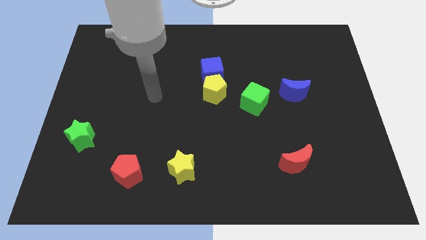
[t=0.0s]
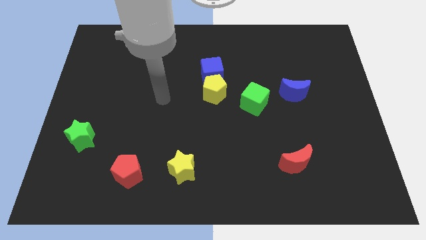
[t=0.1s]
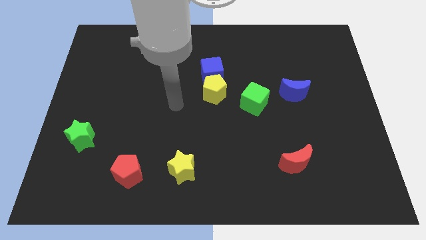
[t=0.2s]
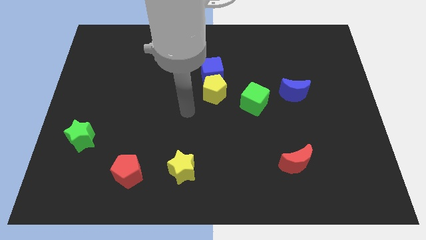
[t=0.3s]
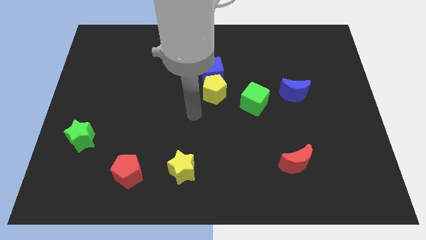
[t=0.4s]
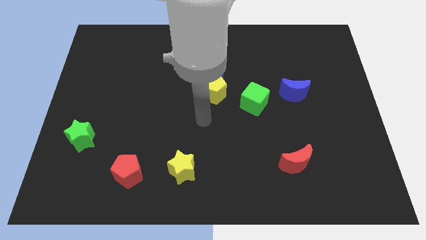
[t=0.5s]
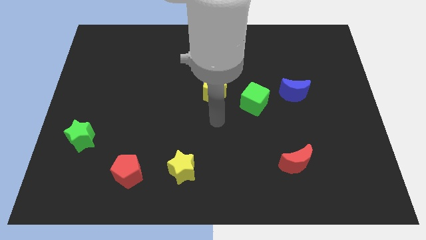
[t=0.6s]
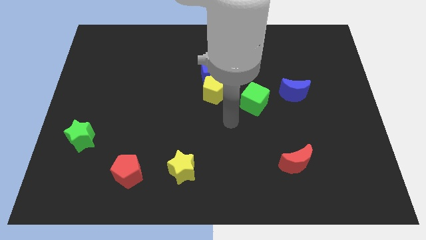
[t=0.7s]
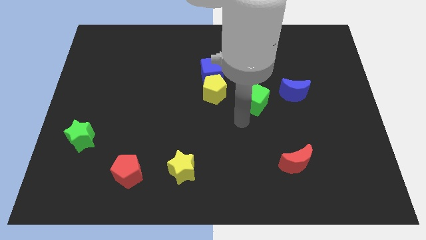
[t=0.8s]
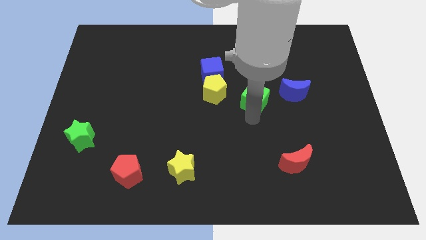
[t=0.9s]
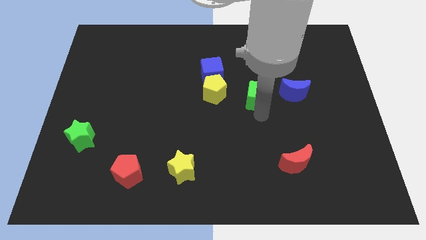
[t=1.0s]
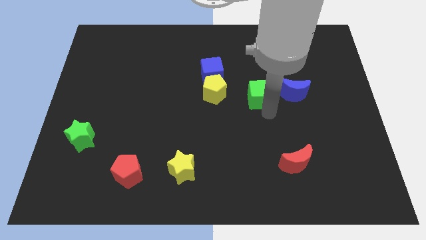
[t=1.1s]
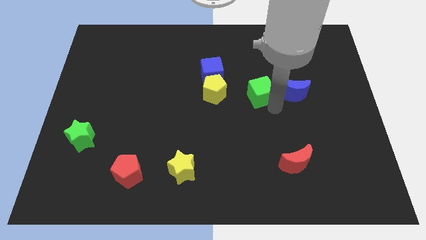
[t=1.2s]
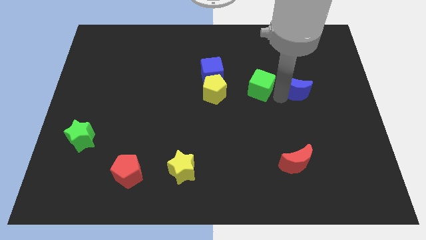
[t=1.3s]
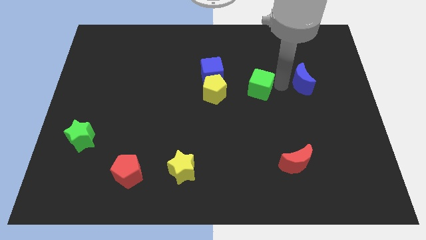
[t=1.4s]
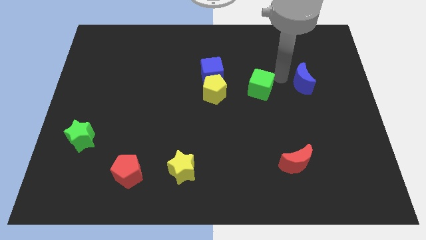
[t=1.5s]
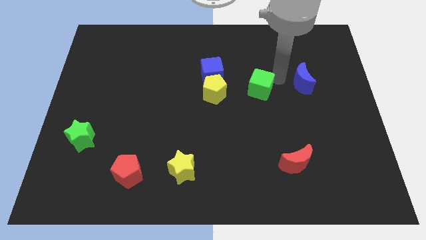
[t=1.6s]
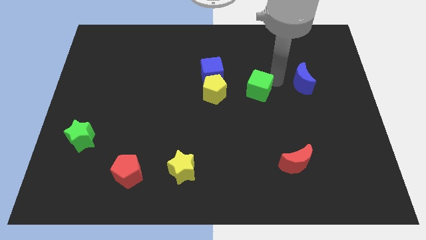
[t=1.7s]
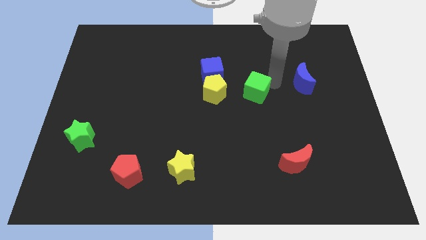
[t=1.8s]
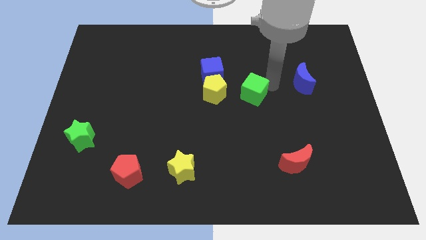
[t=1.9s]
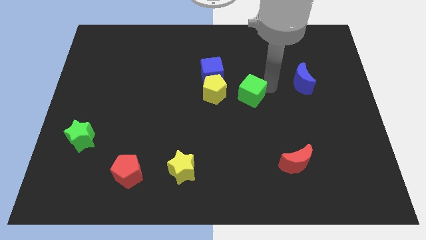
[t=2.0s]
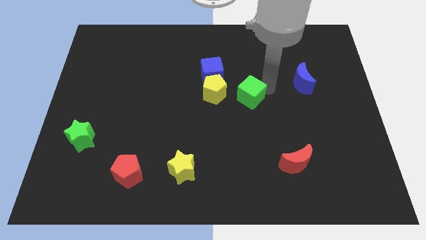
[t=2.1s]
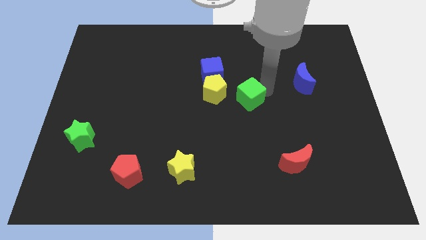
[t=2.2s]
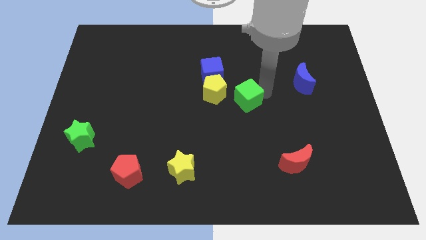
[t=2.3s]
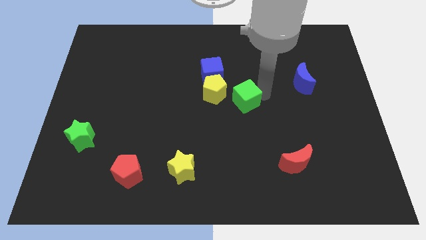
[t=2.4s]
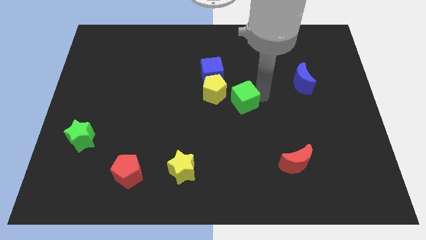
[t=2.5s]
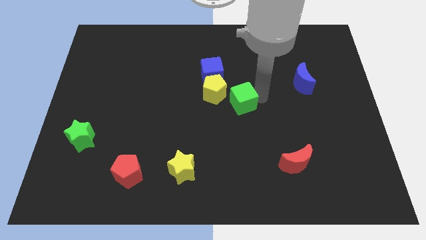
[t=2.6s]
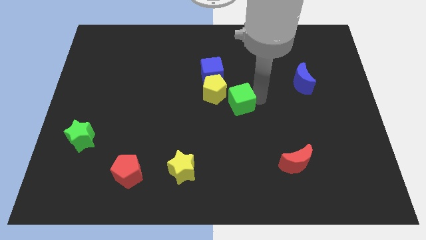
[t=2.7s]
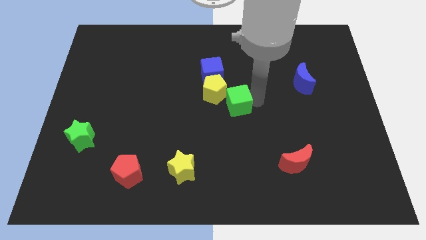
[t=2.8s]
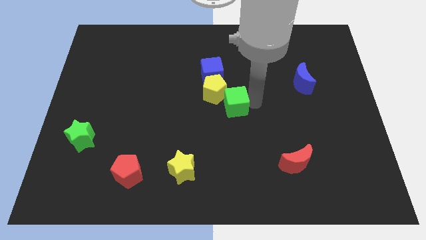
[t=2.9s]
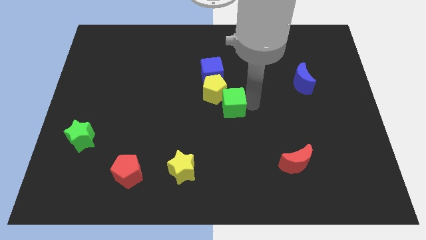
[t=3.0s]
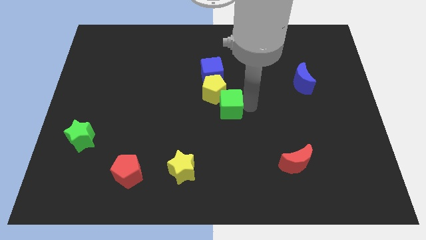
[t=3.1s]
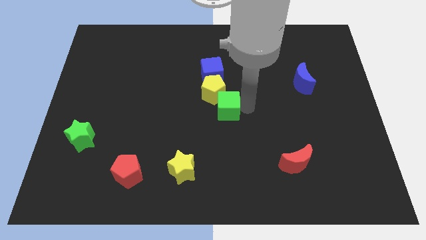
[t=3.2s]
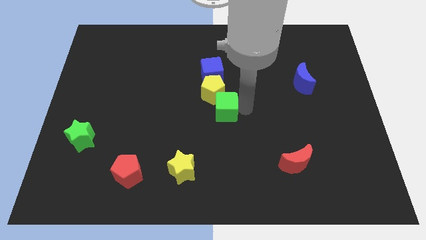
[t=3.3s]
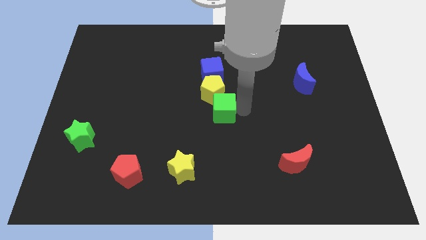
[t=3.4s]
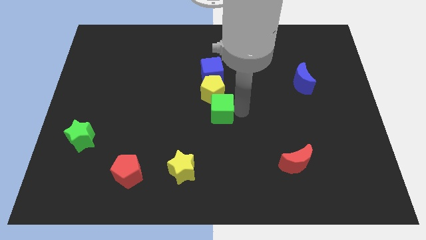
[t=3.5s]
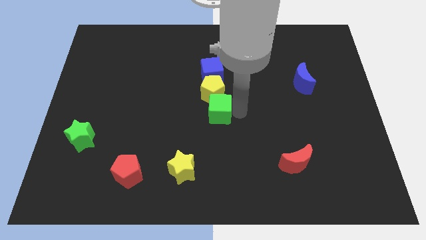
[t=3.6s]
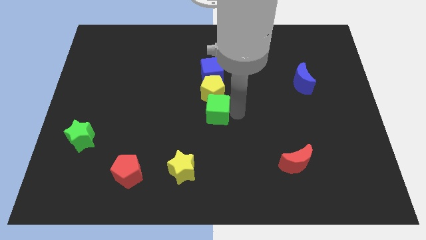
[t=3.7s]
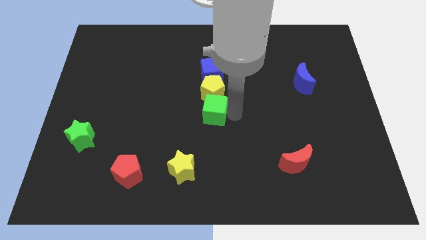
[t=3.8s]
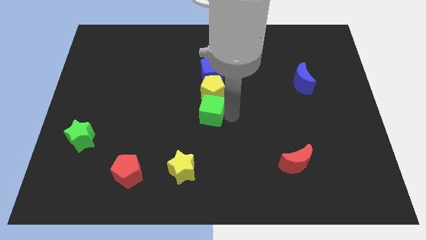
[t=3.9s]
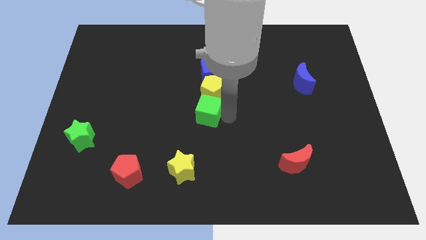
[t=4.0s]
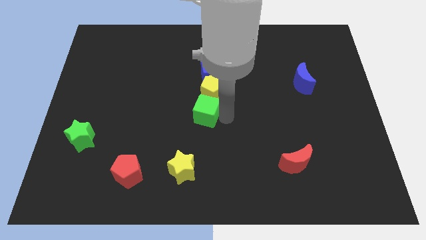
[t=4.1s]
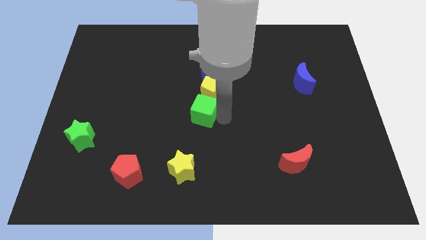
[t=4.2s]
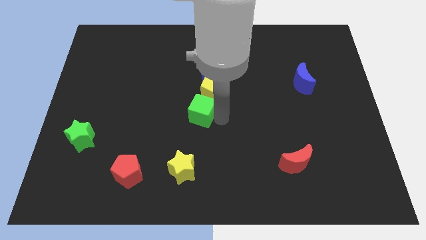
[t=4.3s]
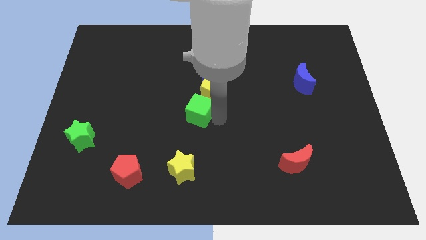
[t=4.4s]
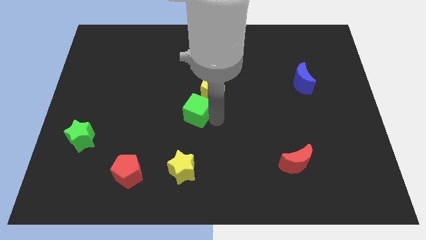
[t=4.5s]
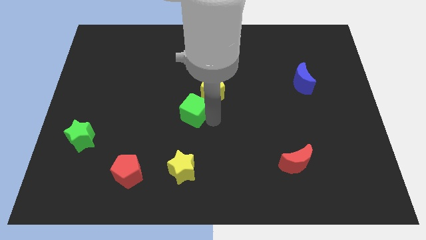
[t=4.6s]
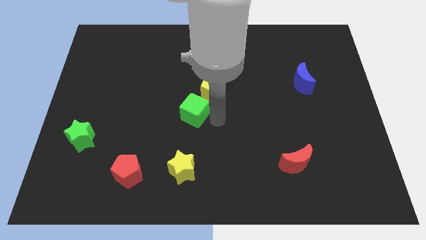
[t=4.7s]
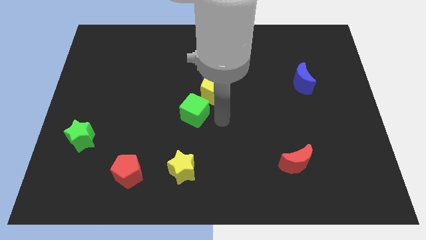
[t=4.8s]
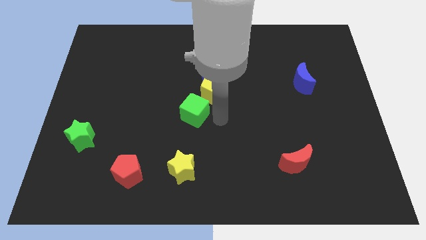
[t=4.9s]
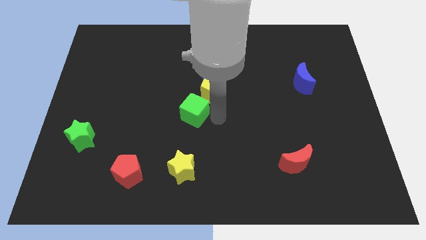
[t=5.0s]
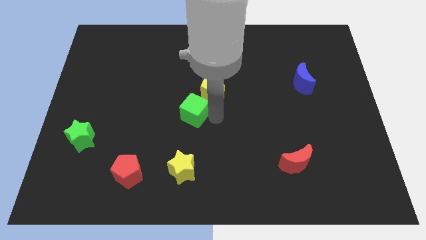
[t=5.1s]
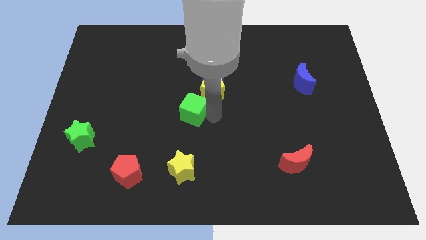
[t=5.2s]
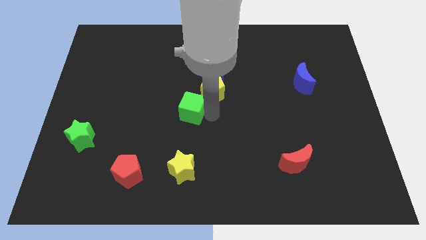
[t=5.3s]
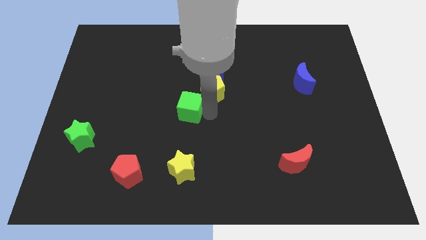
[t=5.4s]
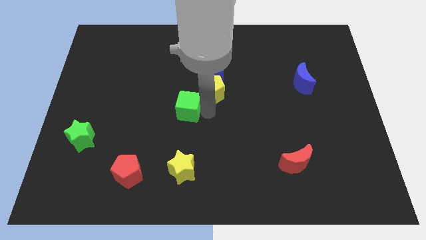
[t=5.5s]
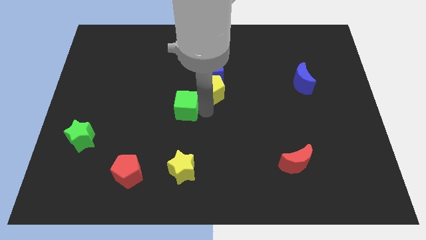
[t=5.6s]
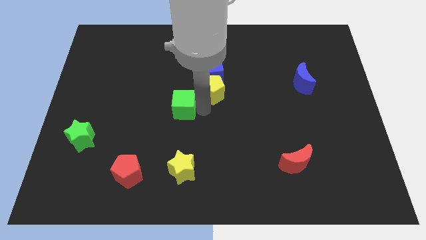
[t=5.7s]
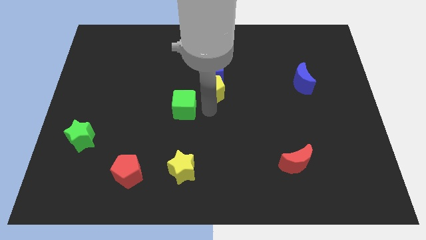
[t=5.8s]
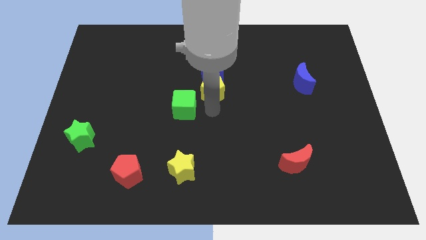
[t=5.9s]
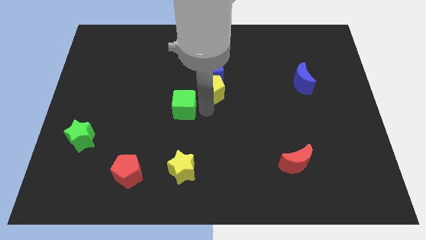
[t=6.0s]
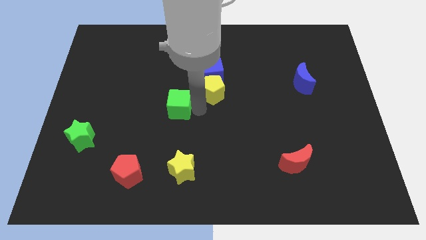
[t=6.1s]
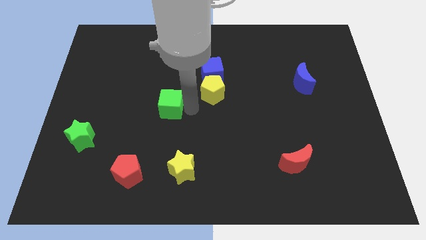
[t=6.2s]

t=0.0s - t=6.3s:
push the green cube to the left

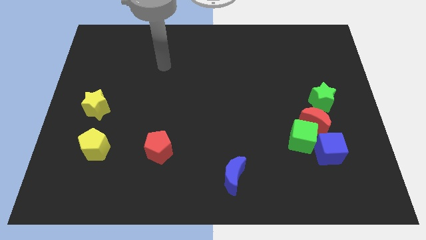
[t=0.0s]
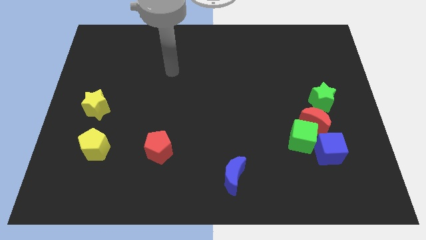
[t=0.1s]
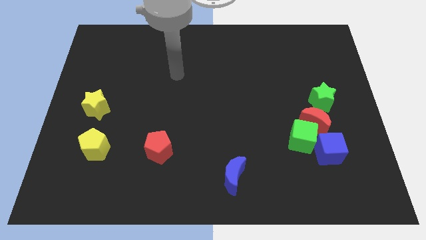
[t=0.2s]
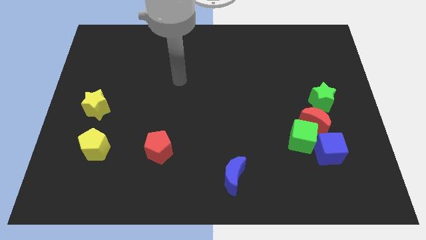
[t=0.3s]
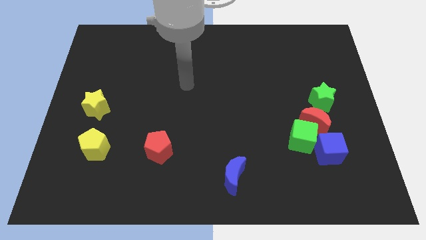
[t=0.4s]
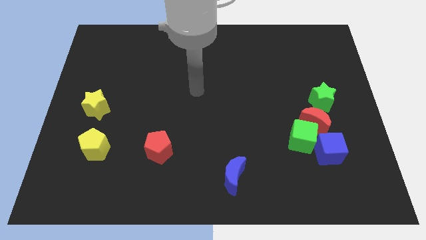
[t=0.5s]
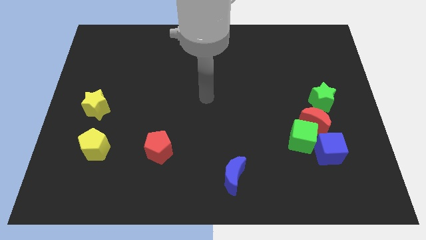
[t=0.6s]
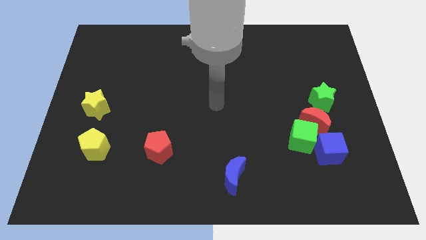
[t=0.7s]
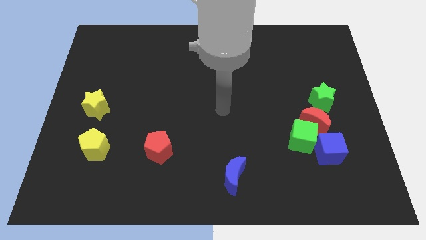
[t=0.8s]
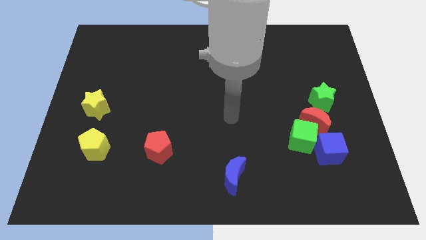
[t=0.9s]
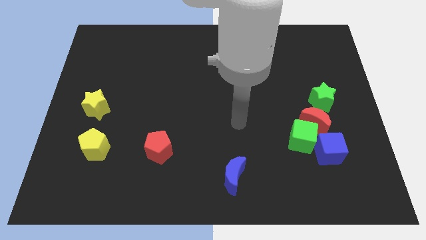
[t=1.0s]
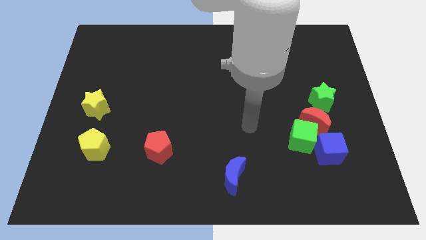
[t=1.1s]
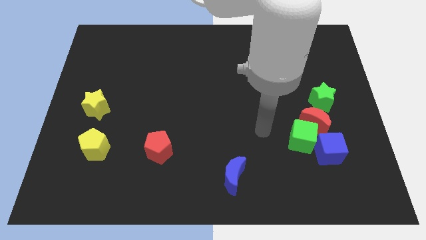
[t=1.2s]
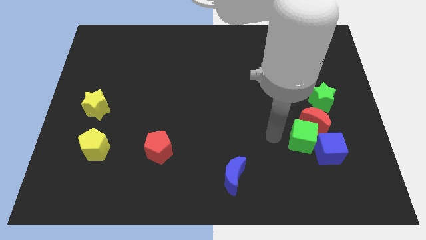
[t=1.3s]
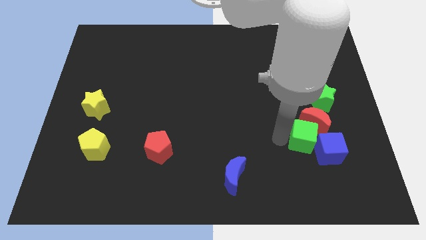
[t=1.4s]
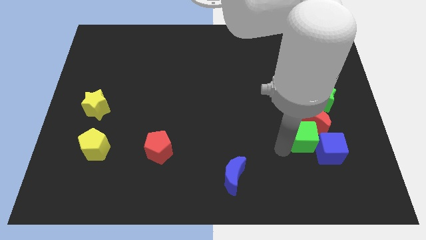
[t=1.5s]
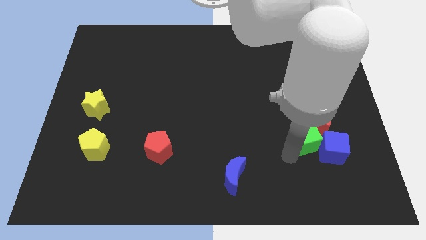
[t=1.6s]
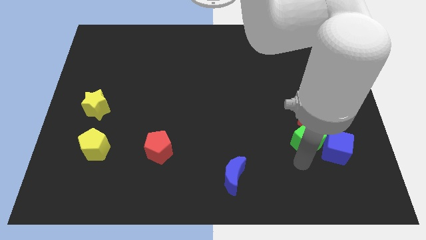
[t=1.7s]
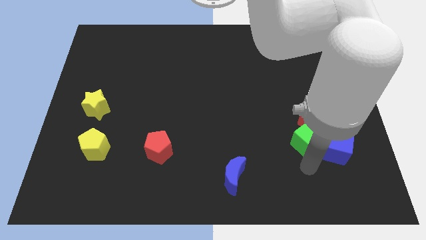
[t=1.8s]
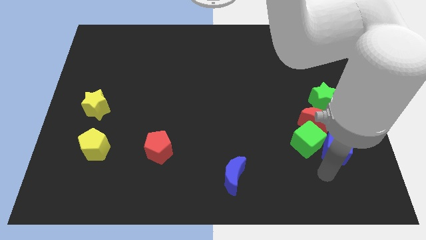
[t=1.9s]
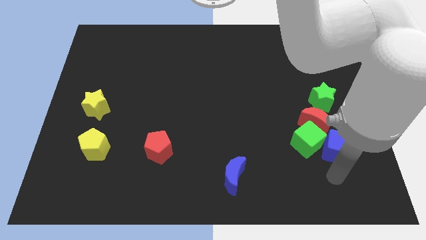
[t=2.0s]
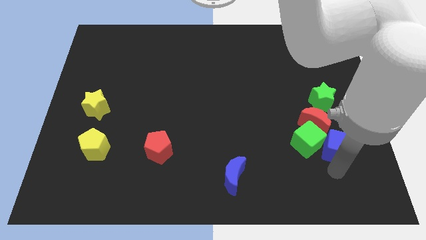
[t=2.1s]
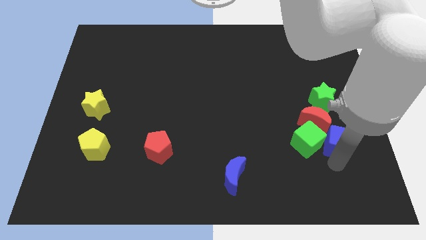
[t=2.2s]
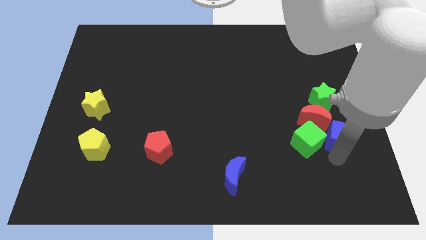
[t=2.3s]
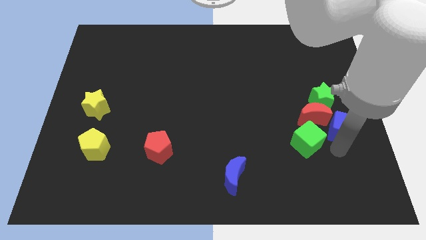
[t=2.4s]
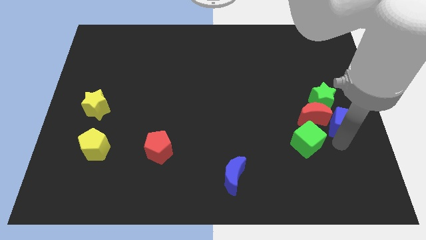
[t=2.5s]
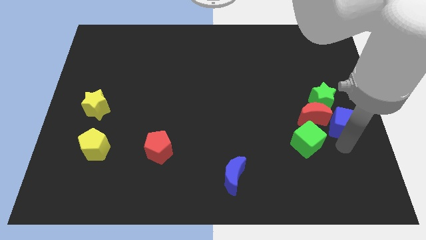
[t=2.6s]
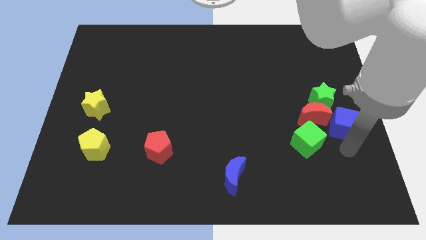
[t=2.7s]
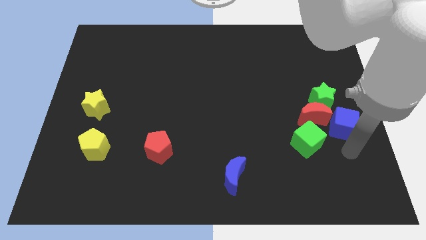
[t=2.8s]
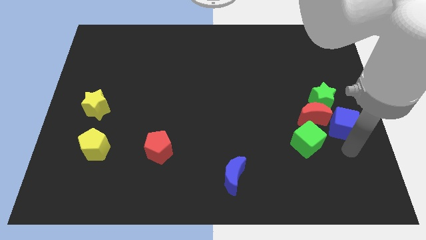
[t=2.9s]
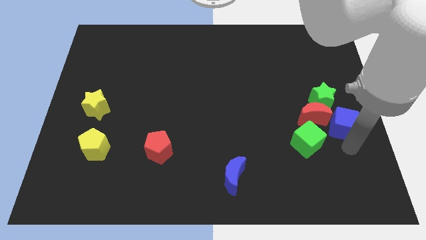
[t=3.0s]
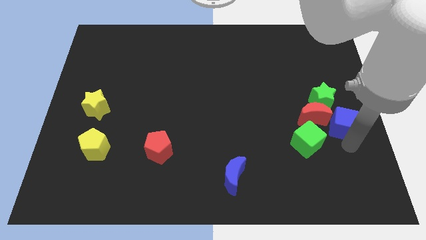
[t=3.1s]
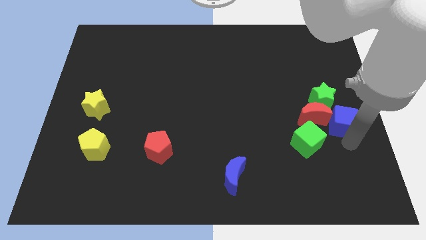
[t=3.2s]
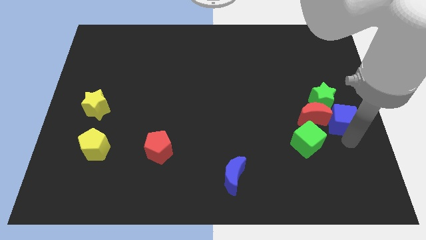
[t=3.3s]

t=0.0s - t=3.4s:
slide the blue cube slightly up
